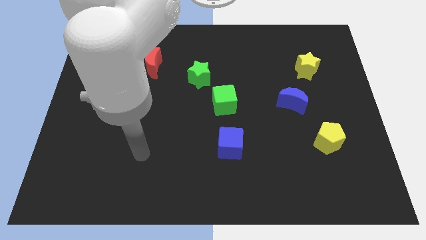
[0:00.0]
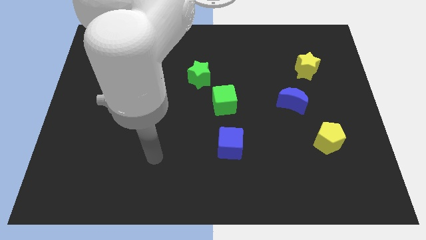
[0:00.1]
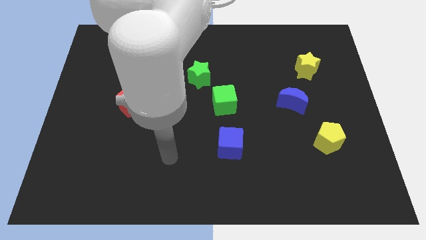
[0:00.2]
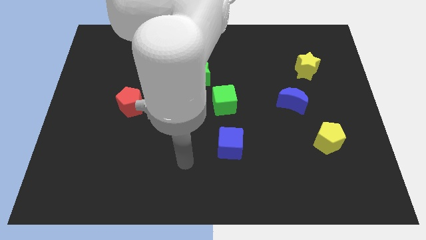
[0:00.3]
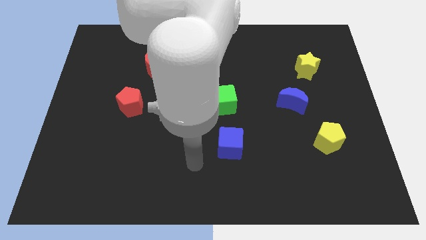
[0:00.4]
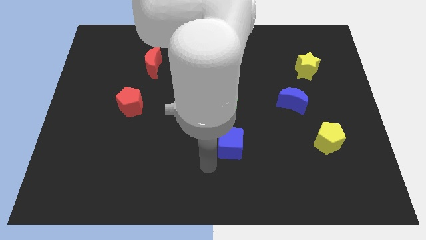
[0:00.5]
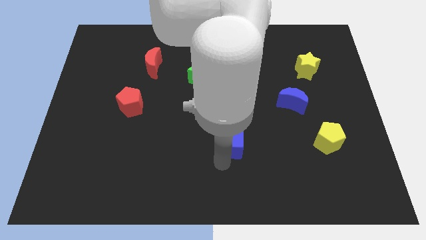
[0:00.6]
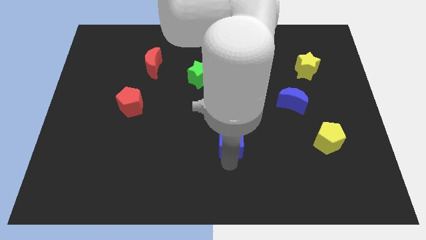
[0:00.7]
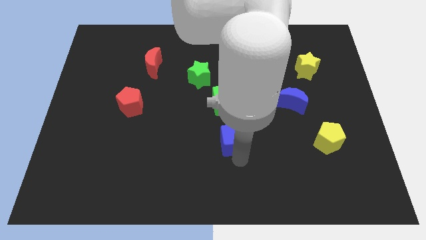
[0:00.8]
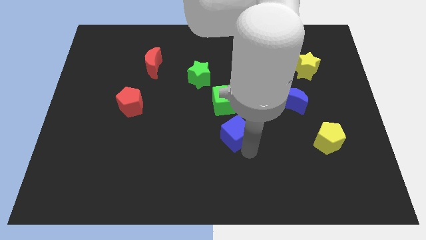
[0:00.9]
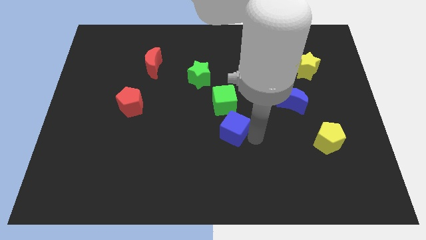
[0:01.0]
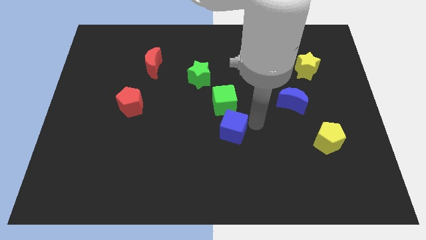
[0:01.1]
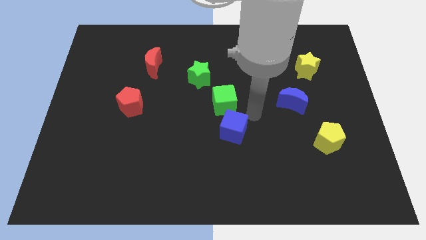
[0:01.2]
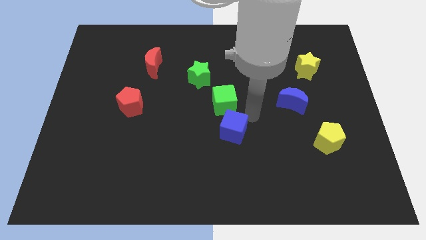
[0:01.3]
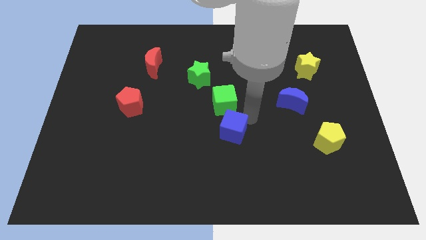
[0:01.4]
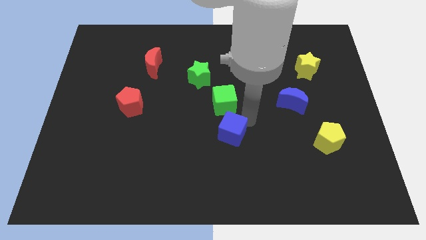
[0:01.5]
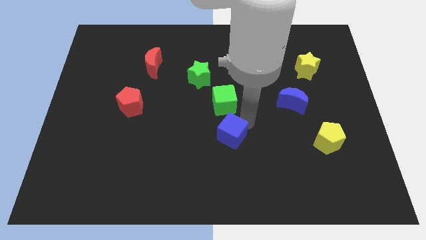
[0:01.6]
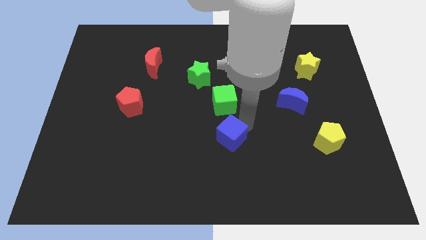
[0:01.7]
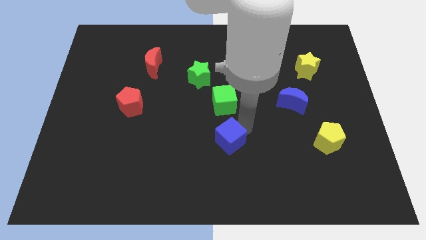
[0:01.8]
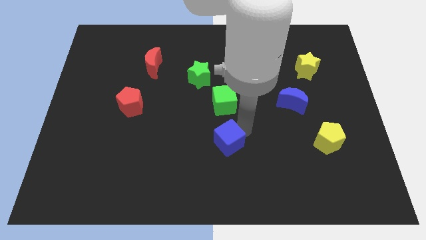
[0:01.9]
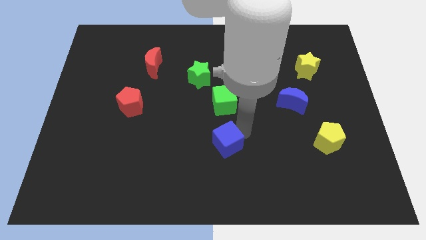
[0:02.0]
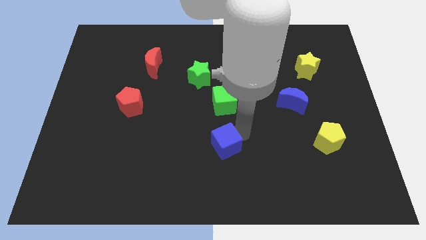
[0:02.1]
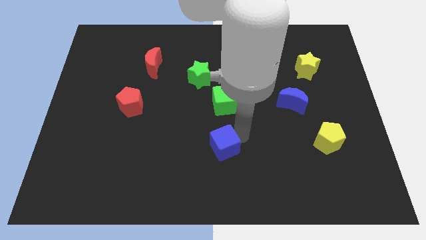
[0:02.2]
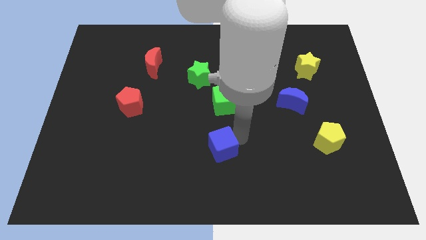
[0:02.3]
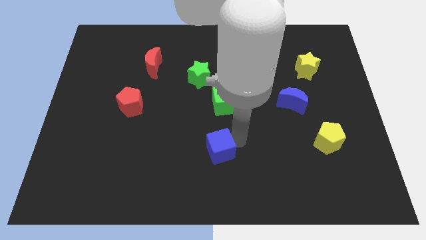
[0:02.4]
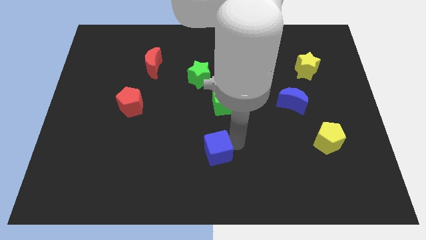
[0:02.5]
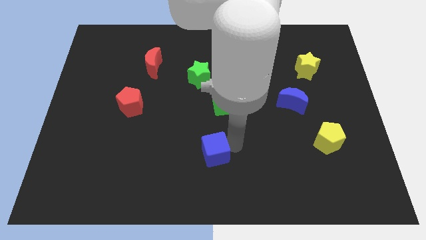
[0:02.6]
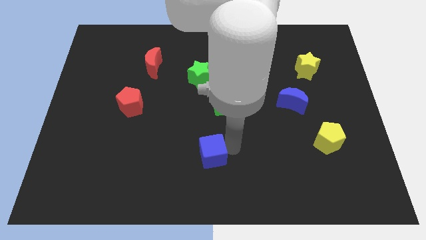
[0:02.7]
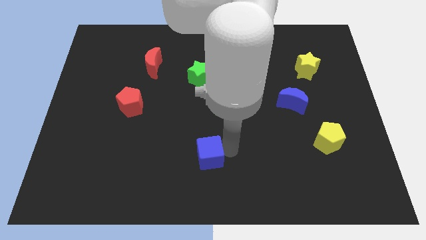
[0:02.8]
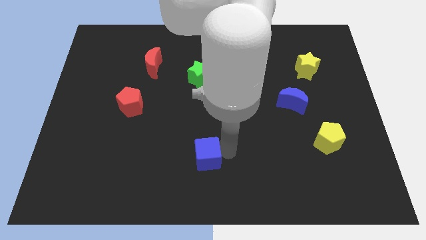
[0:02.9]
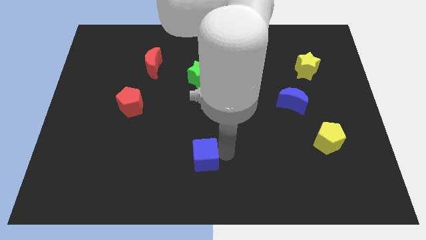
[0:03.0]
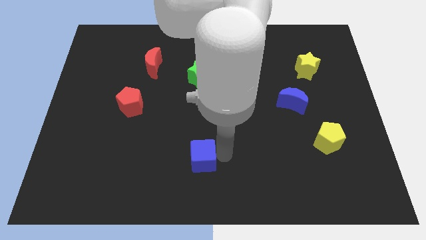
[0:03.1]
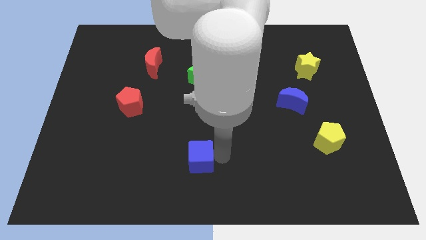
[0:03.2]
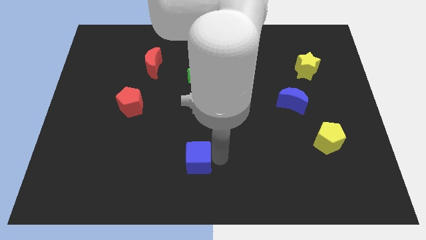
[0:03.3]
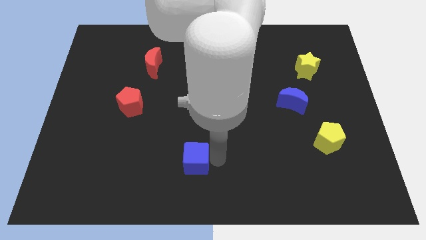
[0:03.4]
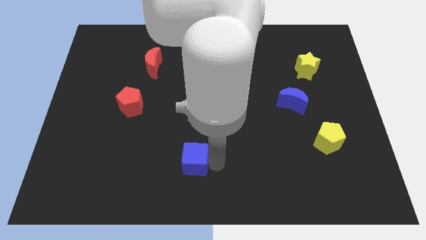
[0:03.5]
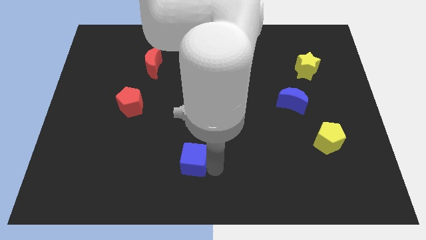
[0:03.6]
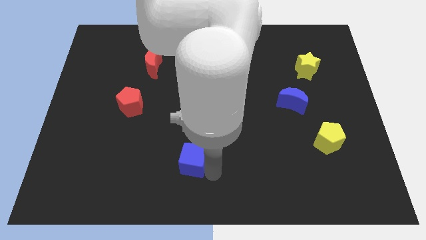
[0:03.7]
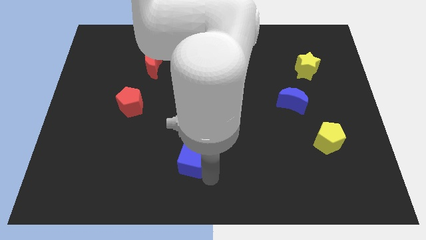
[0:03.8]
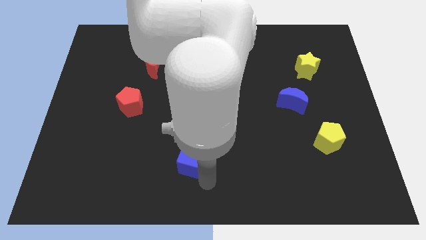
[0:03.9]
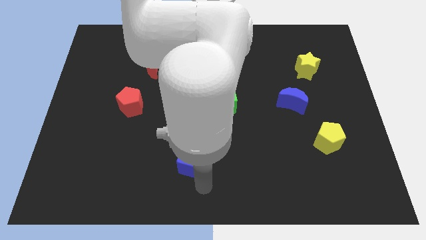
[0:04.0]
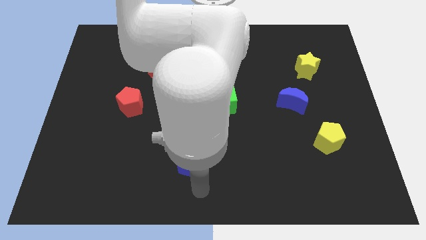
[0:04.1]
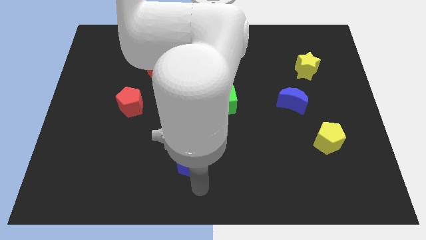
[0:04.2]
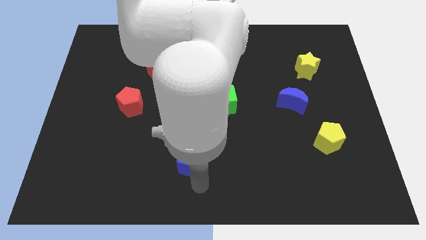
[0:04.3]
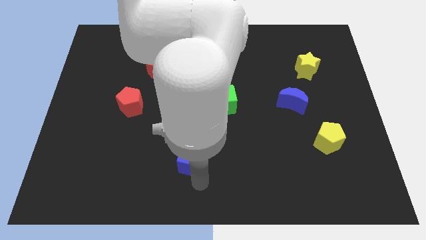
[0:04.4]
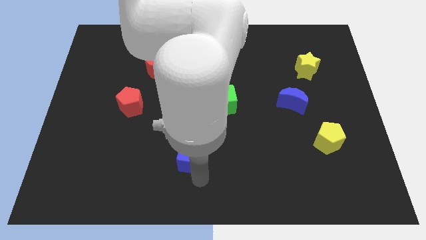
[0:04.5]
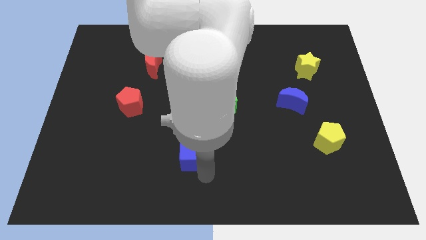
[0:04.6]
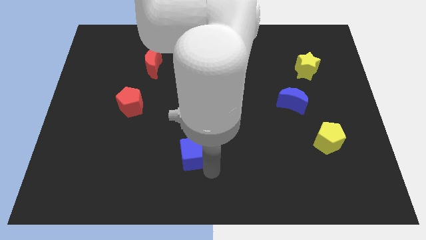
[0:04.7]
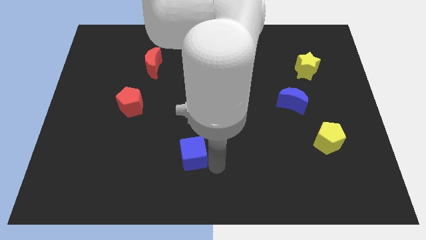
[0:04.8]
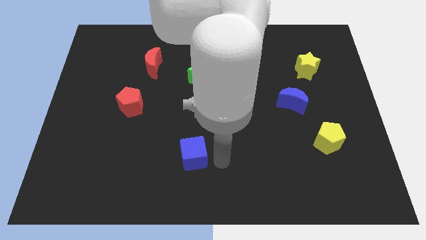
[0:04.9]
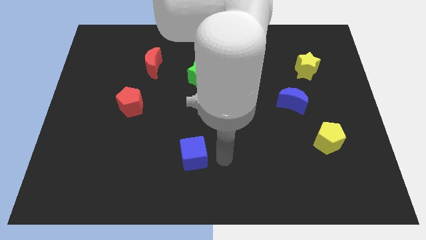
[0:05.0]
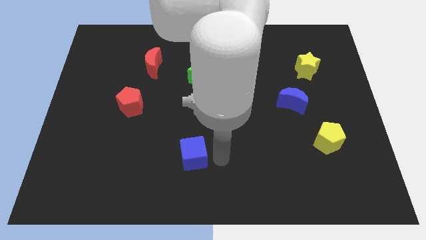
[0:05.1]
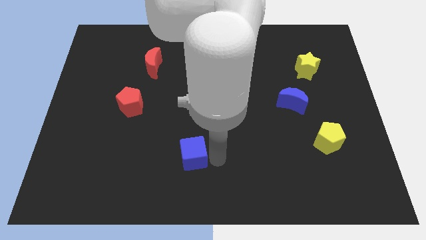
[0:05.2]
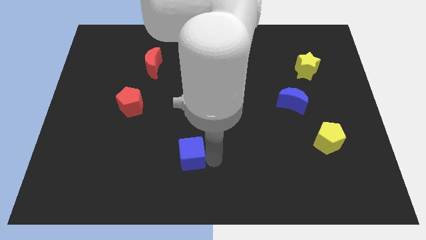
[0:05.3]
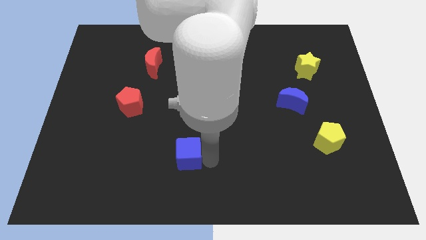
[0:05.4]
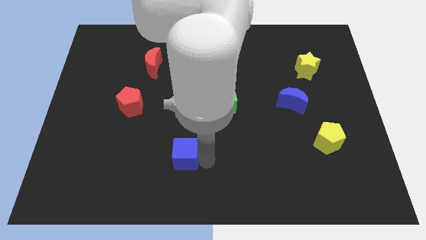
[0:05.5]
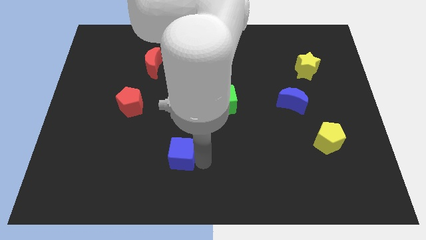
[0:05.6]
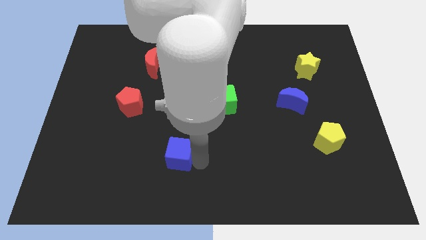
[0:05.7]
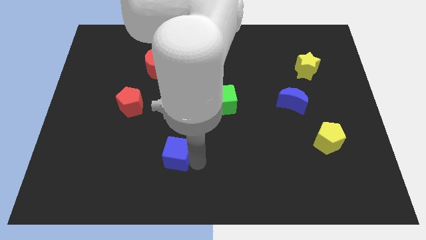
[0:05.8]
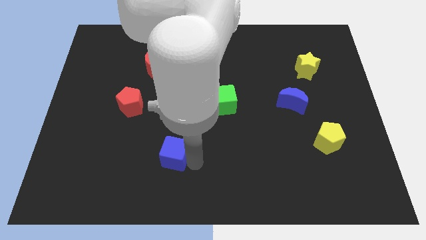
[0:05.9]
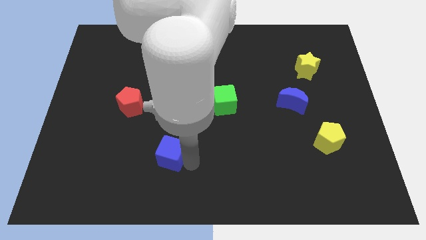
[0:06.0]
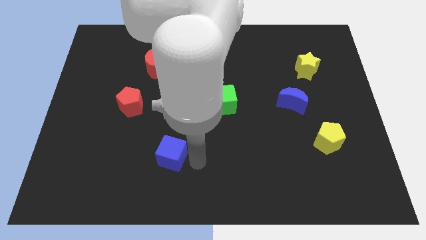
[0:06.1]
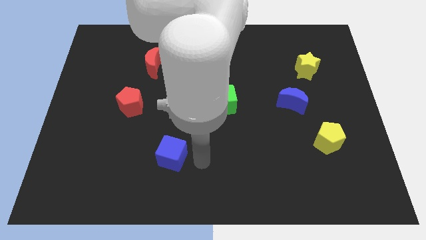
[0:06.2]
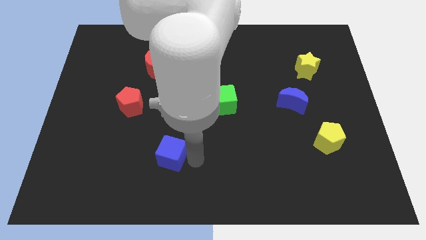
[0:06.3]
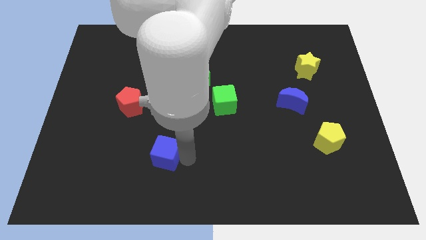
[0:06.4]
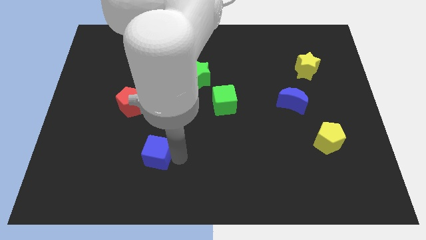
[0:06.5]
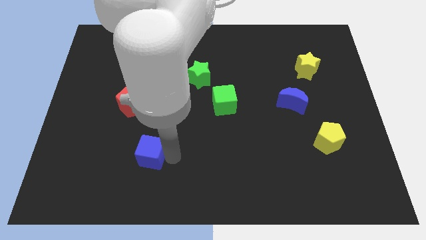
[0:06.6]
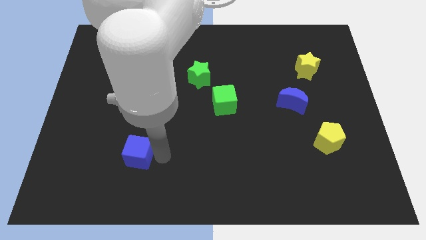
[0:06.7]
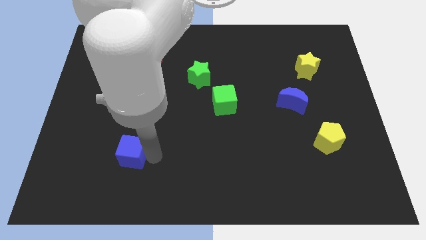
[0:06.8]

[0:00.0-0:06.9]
slide the blue cube to the left

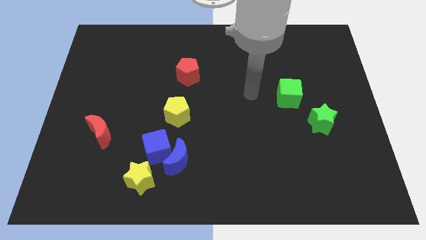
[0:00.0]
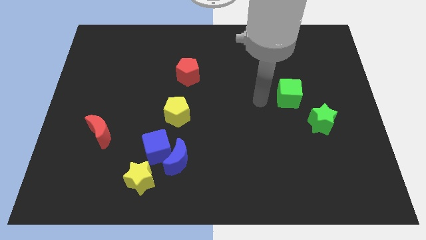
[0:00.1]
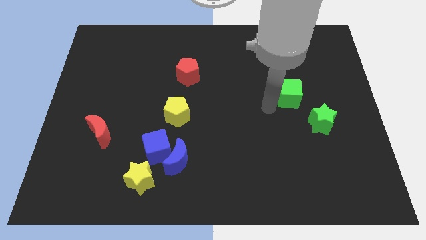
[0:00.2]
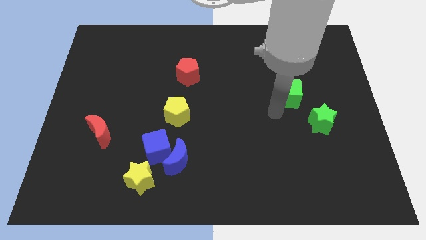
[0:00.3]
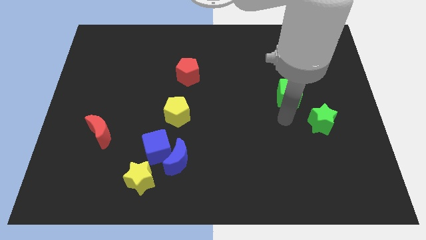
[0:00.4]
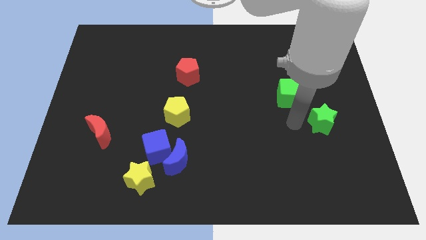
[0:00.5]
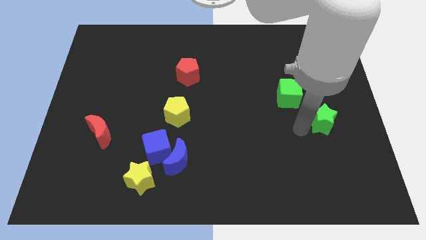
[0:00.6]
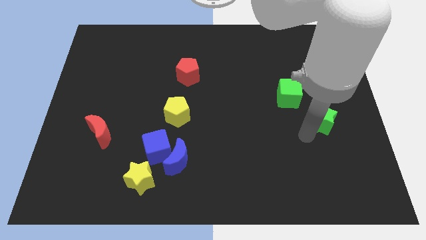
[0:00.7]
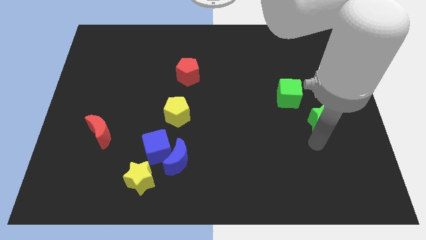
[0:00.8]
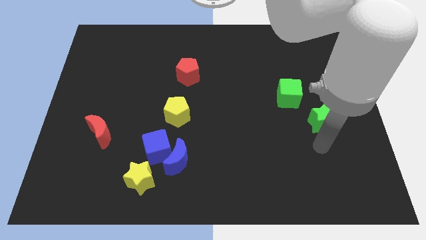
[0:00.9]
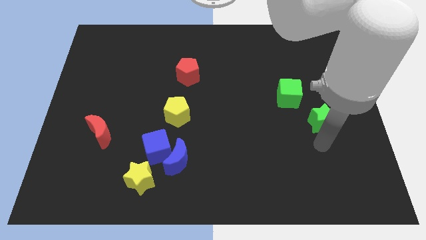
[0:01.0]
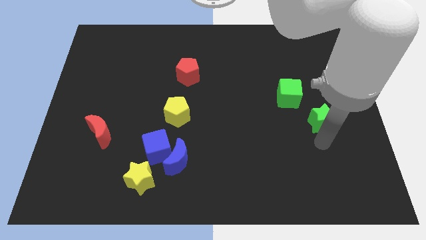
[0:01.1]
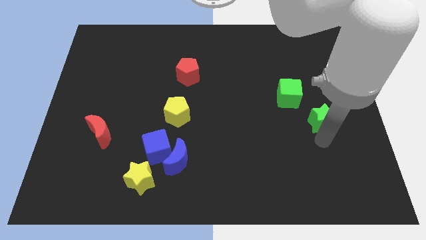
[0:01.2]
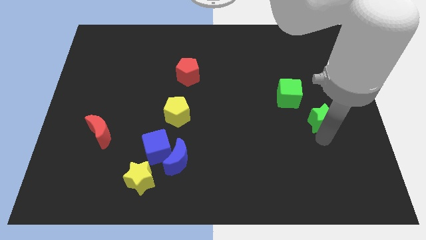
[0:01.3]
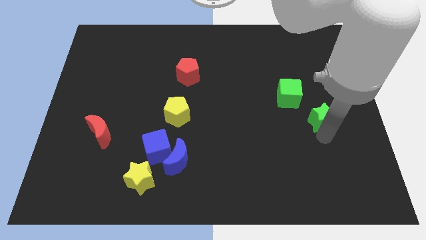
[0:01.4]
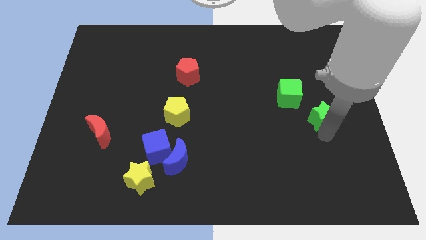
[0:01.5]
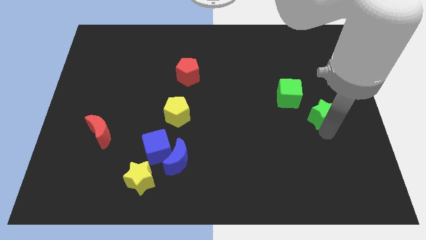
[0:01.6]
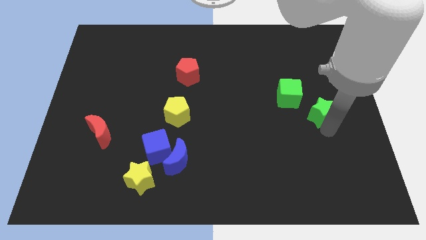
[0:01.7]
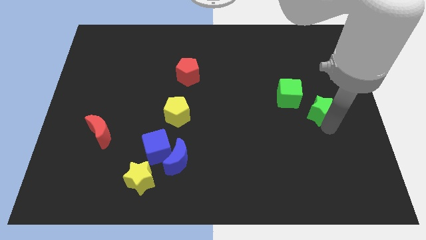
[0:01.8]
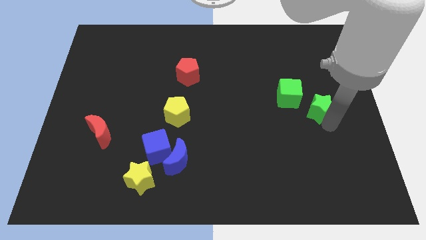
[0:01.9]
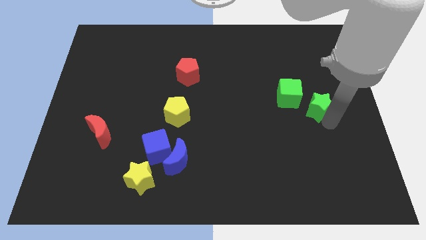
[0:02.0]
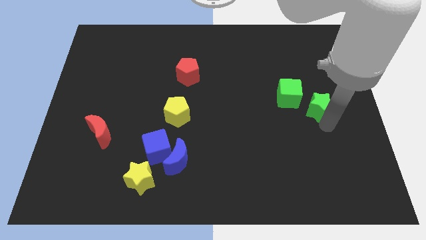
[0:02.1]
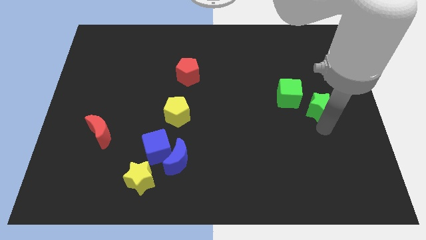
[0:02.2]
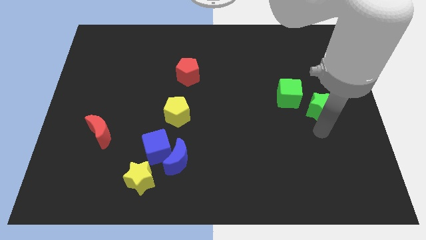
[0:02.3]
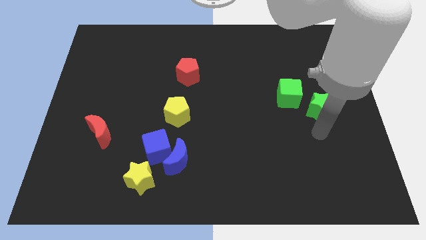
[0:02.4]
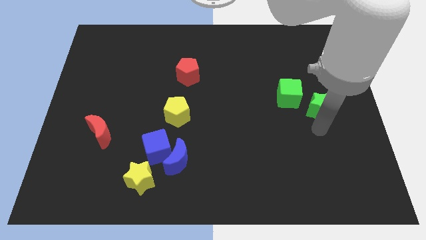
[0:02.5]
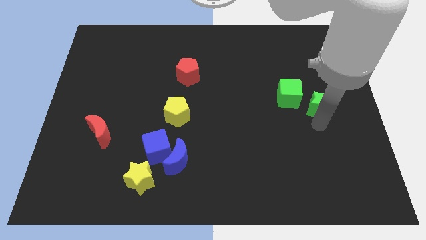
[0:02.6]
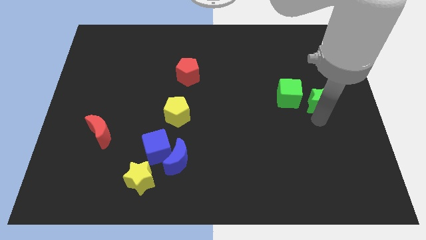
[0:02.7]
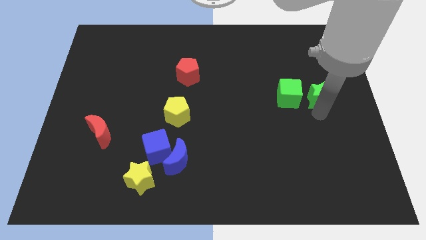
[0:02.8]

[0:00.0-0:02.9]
push the green star a little up
